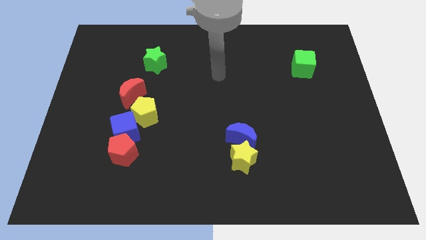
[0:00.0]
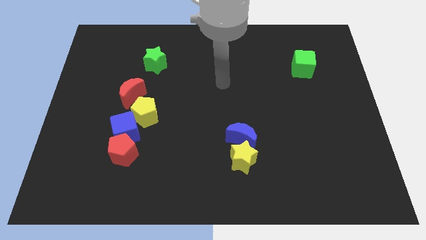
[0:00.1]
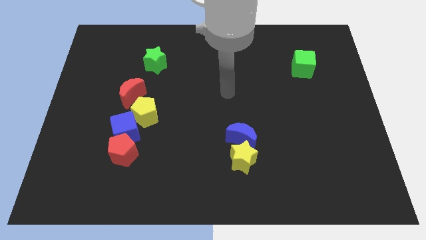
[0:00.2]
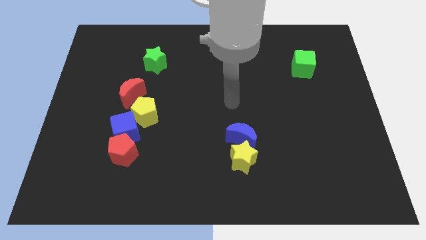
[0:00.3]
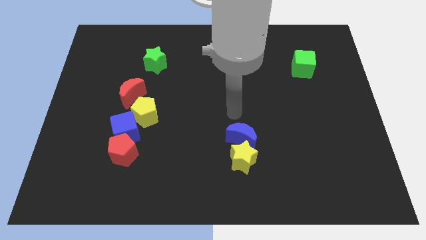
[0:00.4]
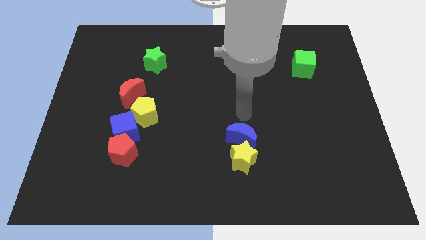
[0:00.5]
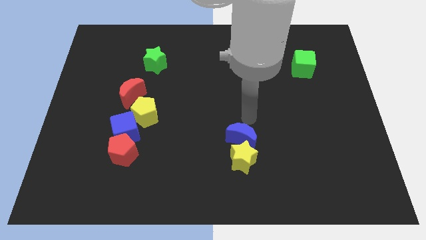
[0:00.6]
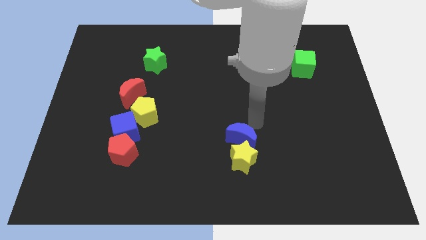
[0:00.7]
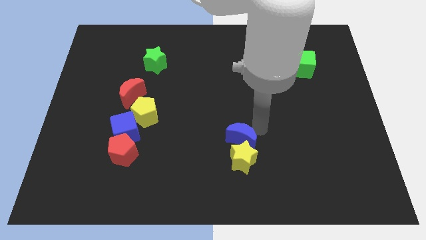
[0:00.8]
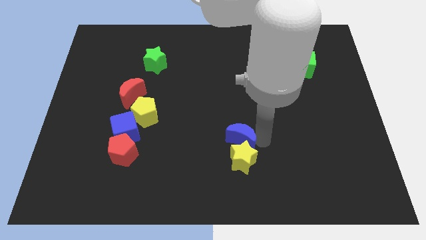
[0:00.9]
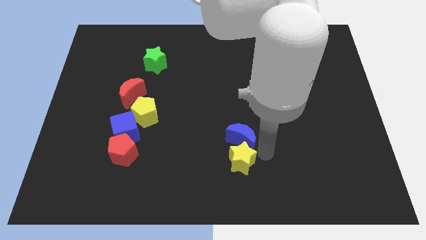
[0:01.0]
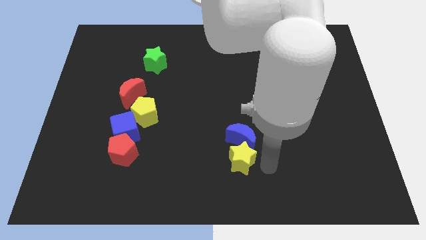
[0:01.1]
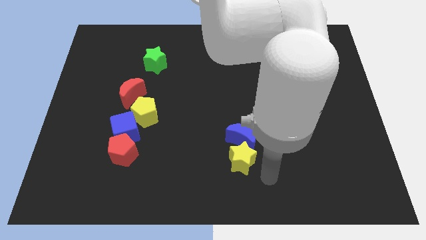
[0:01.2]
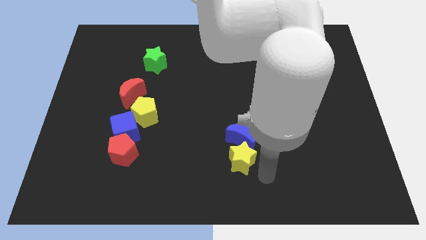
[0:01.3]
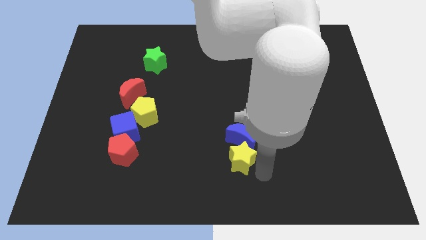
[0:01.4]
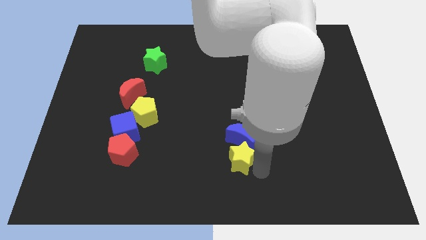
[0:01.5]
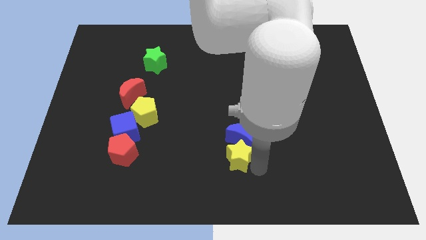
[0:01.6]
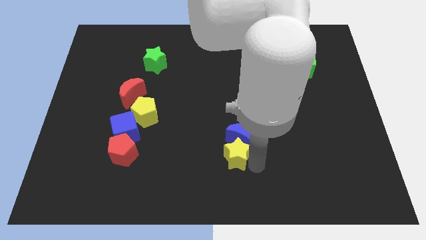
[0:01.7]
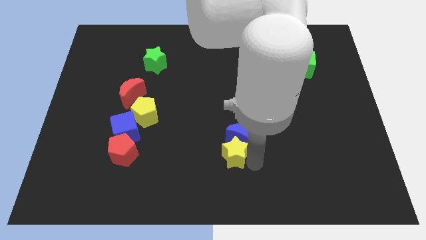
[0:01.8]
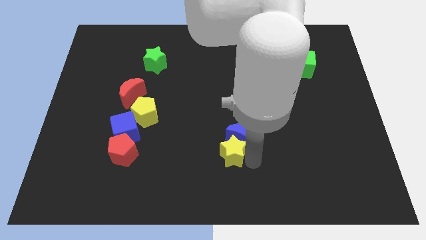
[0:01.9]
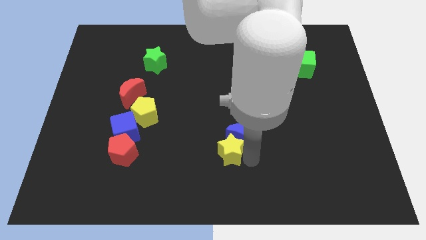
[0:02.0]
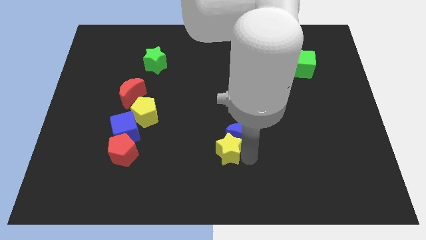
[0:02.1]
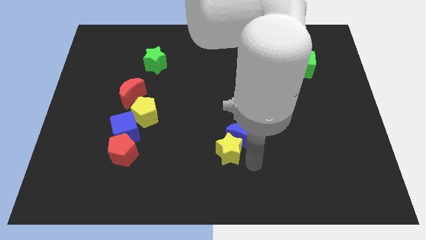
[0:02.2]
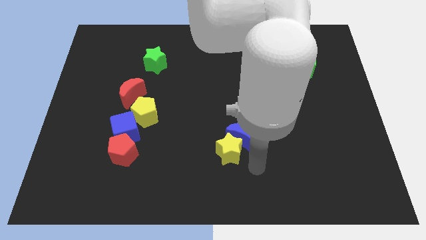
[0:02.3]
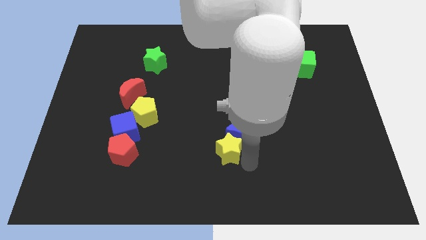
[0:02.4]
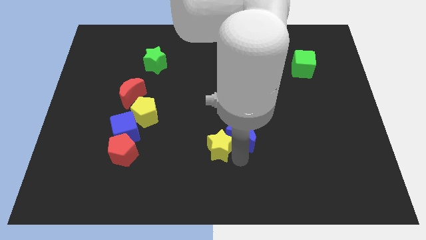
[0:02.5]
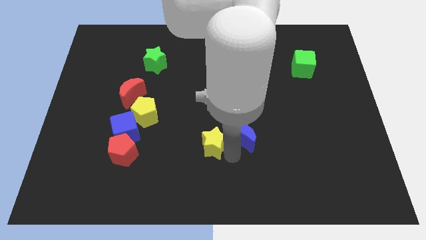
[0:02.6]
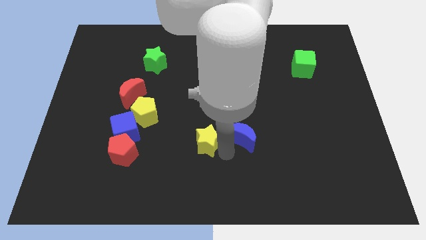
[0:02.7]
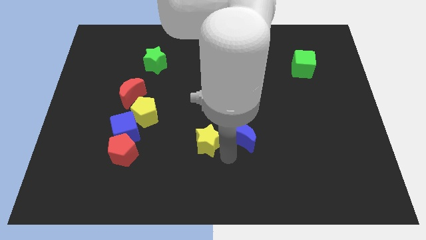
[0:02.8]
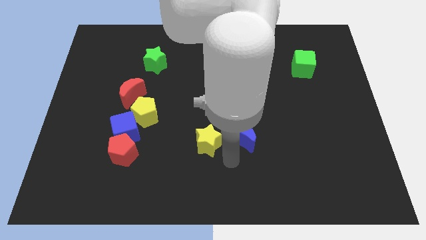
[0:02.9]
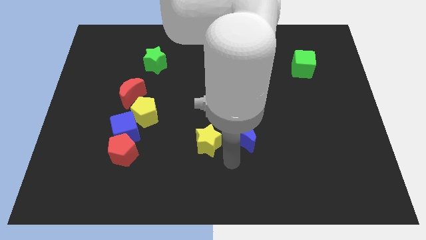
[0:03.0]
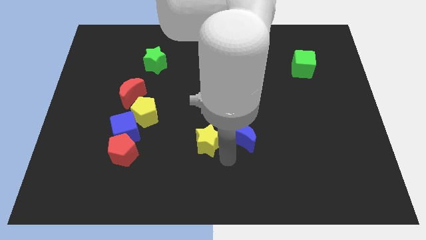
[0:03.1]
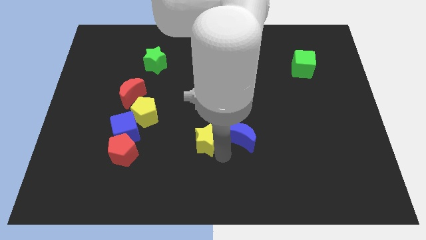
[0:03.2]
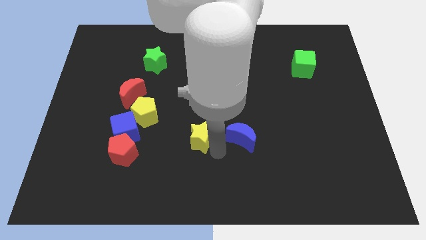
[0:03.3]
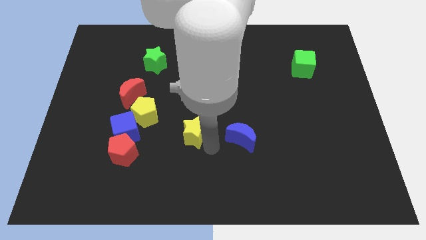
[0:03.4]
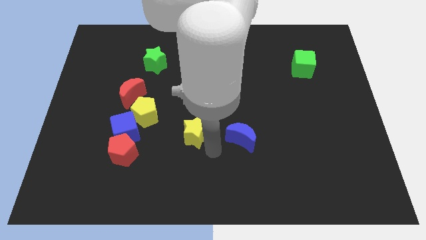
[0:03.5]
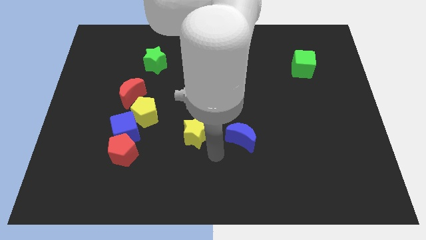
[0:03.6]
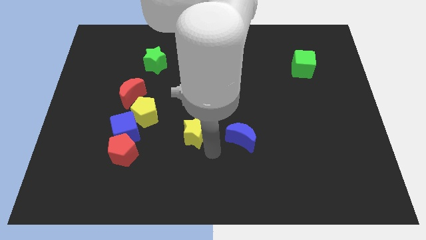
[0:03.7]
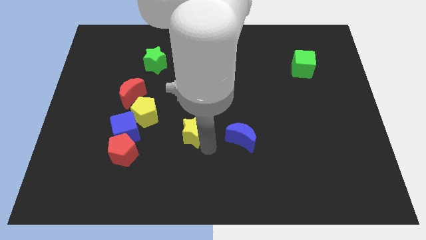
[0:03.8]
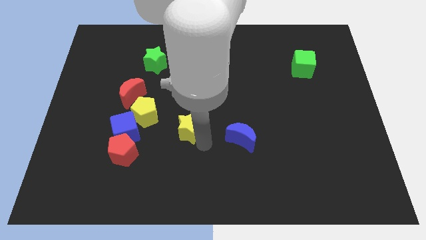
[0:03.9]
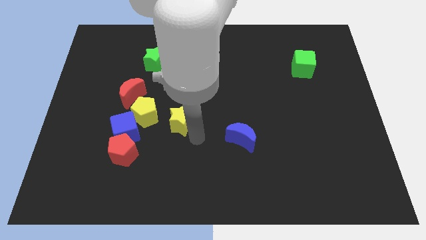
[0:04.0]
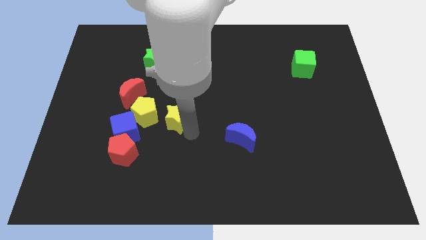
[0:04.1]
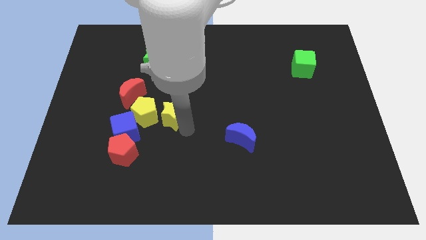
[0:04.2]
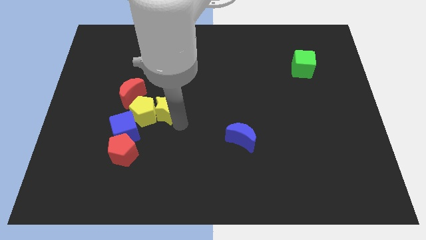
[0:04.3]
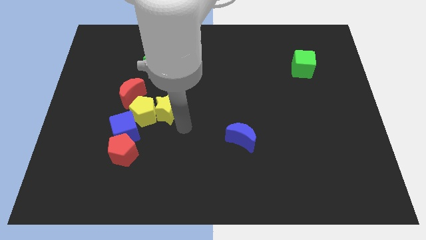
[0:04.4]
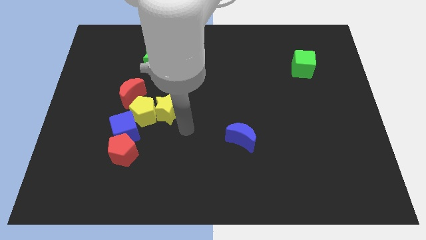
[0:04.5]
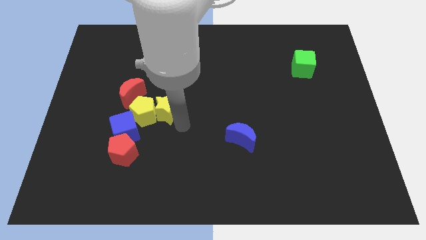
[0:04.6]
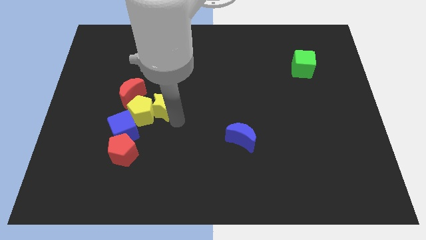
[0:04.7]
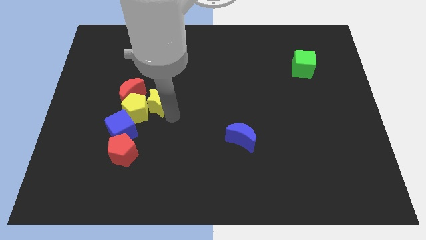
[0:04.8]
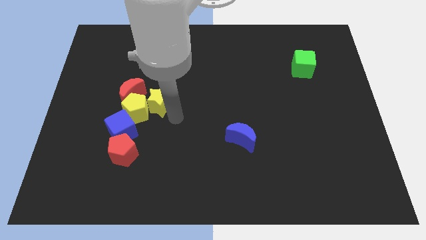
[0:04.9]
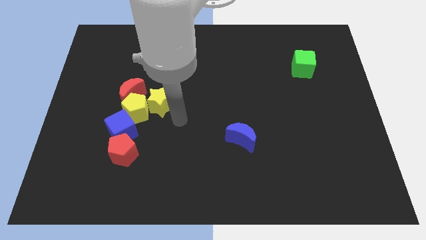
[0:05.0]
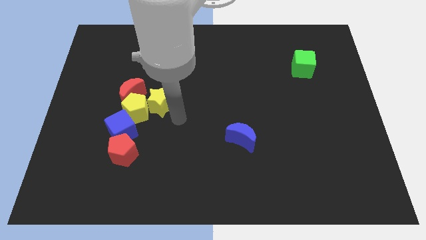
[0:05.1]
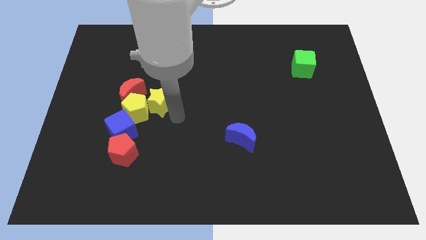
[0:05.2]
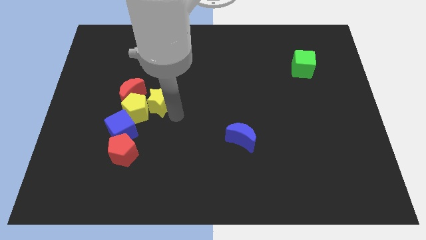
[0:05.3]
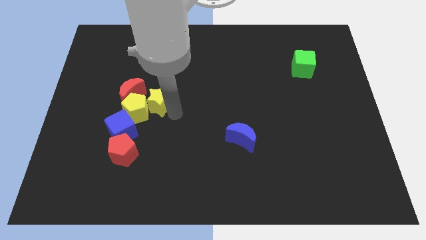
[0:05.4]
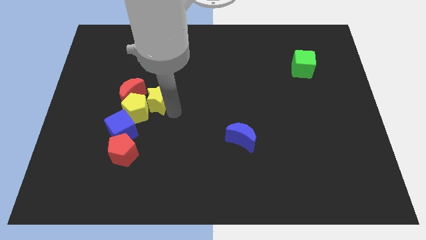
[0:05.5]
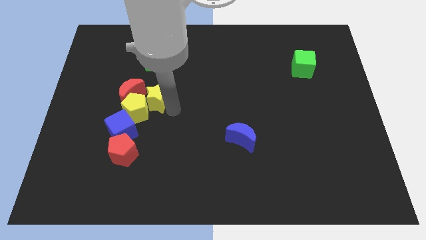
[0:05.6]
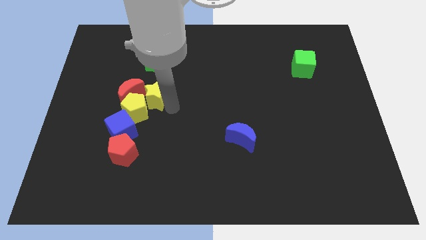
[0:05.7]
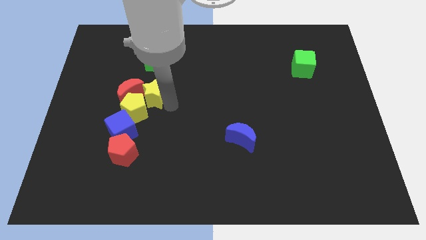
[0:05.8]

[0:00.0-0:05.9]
move the yellow star towards the red moon

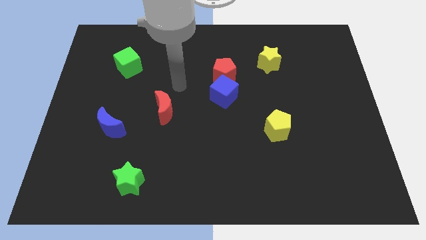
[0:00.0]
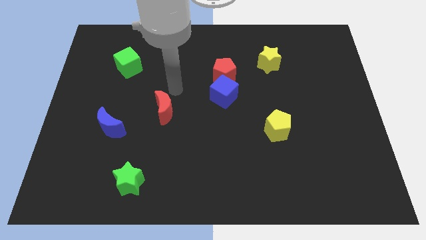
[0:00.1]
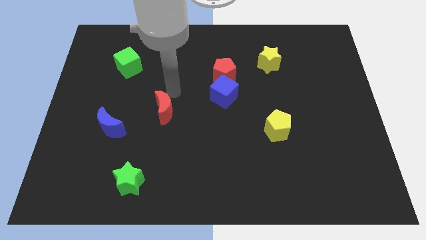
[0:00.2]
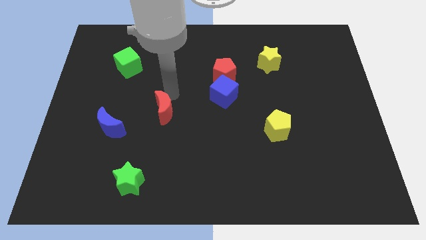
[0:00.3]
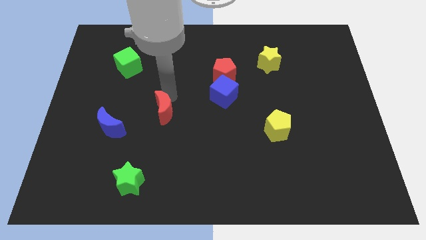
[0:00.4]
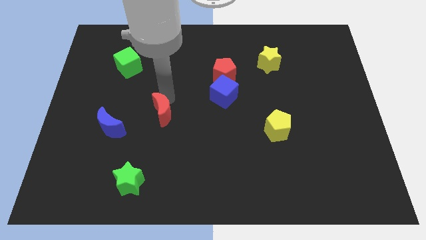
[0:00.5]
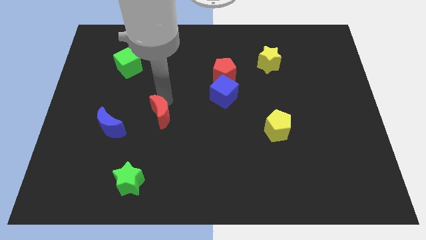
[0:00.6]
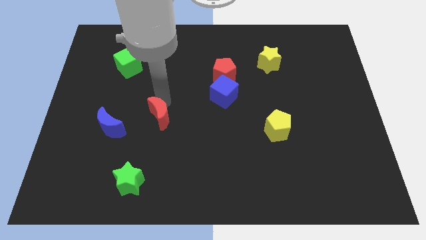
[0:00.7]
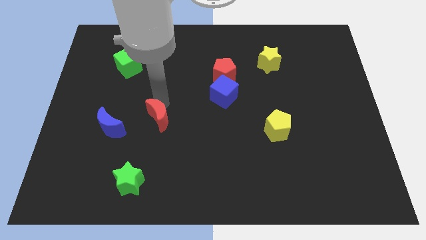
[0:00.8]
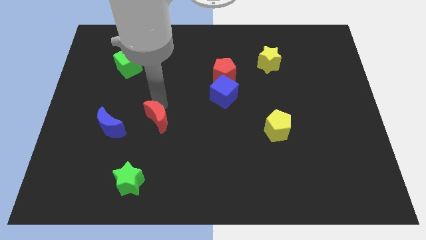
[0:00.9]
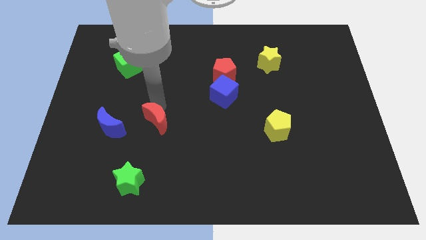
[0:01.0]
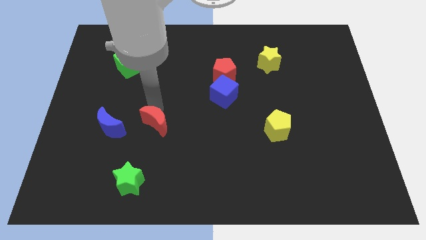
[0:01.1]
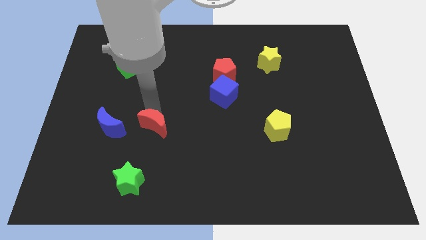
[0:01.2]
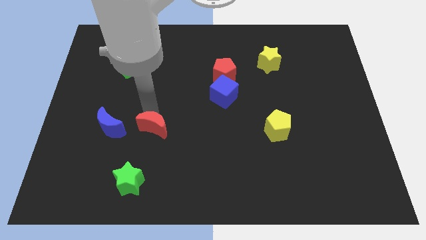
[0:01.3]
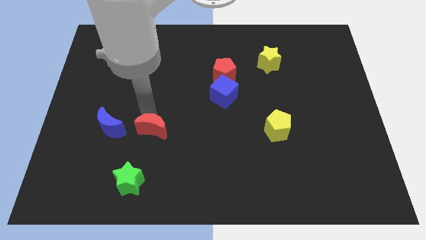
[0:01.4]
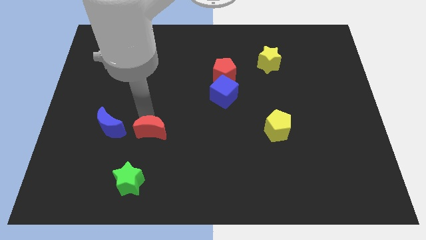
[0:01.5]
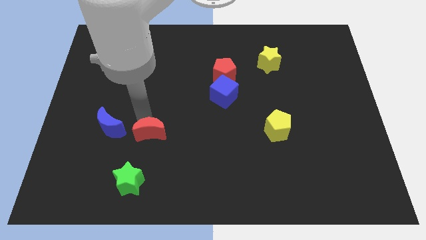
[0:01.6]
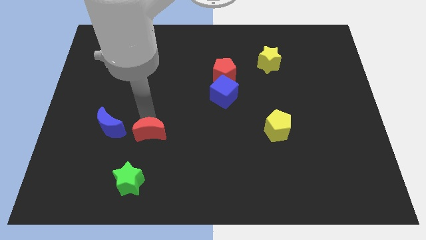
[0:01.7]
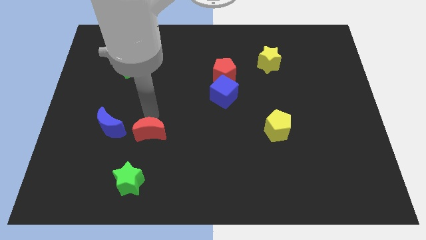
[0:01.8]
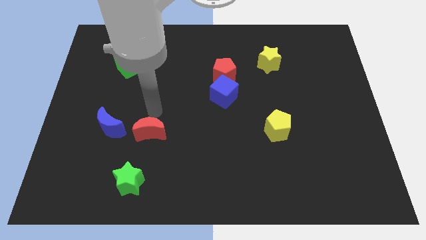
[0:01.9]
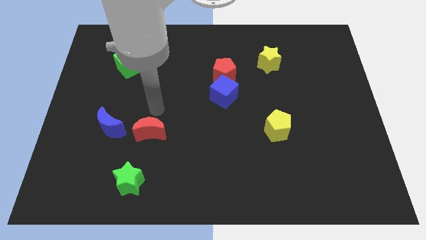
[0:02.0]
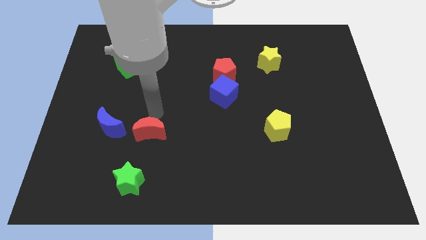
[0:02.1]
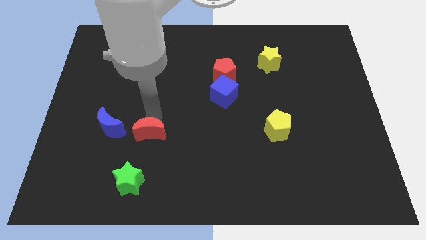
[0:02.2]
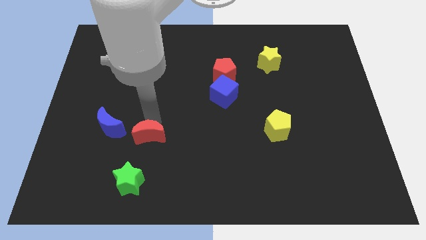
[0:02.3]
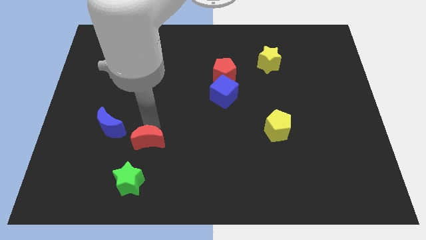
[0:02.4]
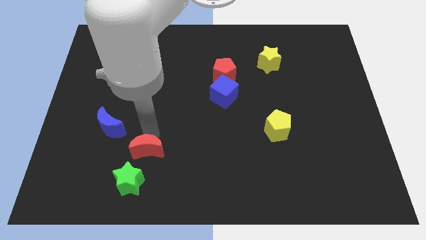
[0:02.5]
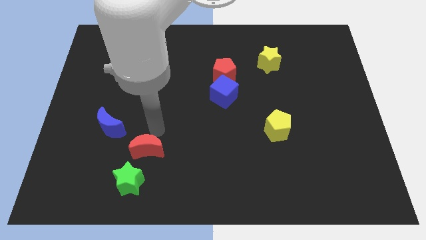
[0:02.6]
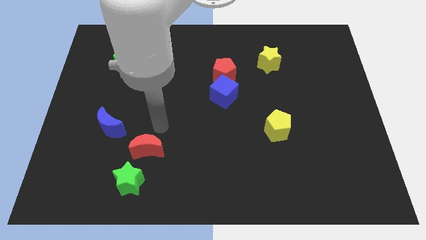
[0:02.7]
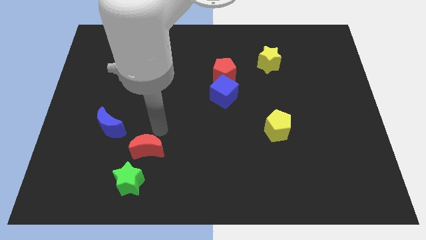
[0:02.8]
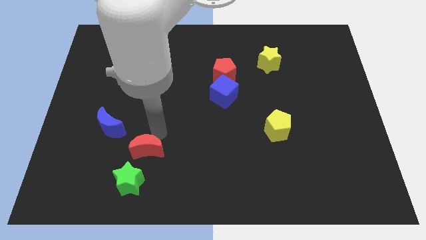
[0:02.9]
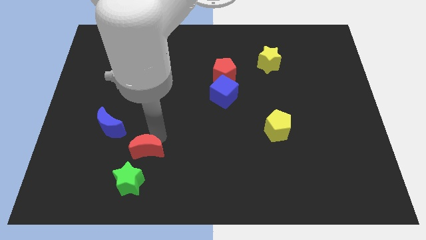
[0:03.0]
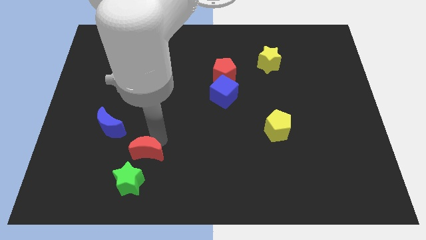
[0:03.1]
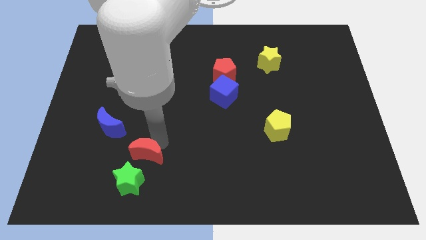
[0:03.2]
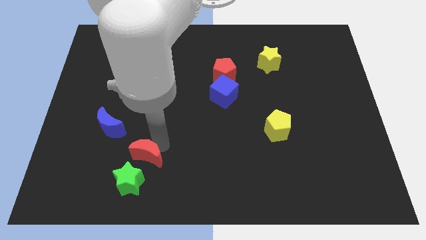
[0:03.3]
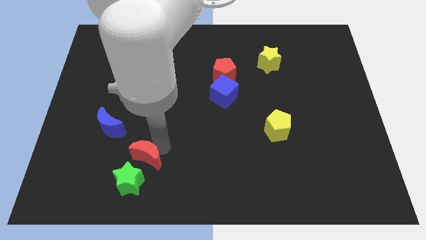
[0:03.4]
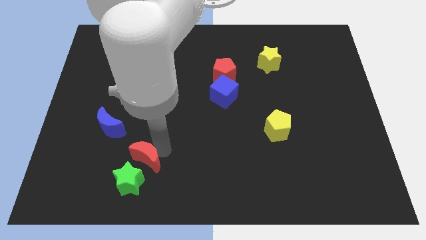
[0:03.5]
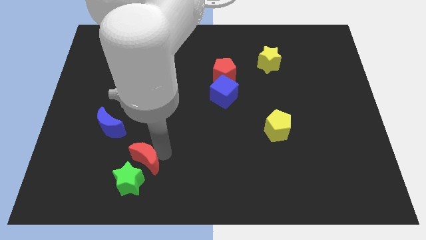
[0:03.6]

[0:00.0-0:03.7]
push the red moon towards the green star
